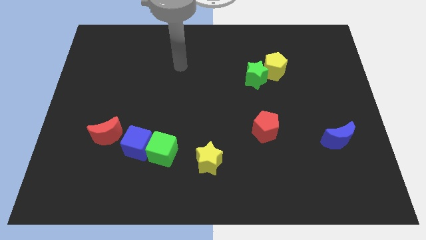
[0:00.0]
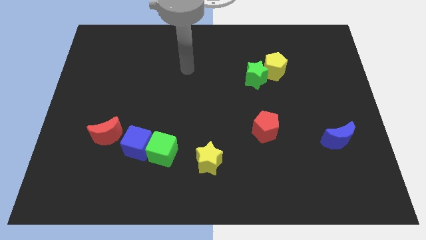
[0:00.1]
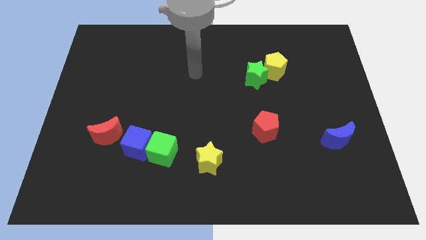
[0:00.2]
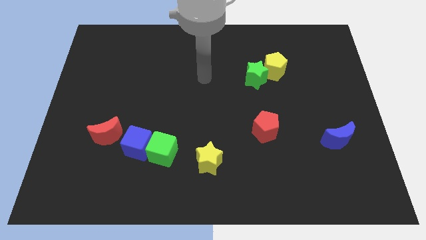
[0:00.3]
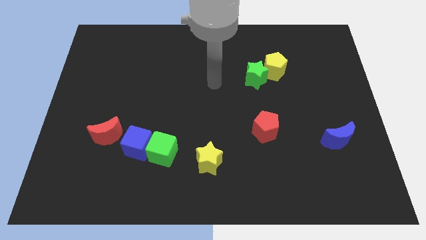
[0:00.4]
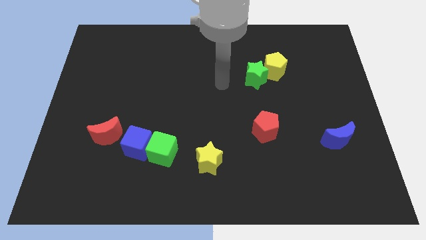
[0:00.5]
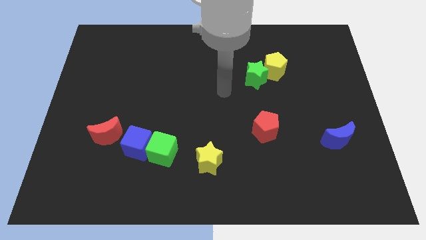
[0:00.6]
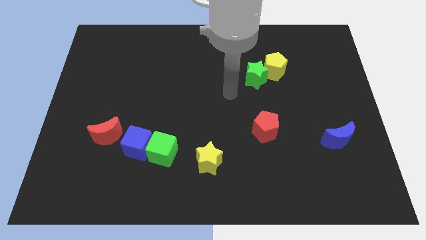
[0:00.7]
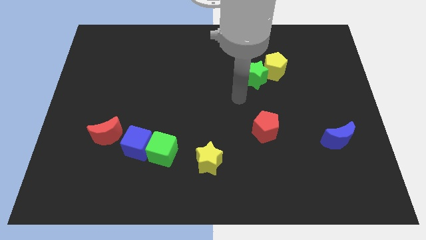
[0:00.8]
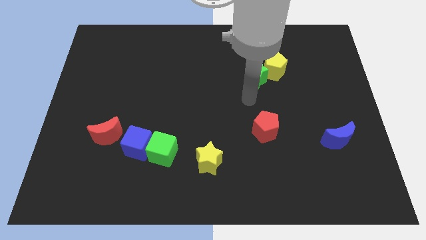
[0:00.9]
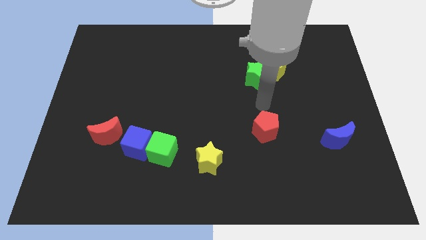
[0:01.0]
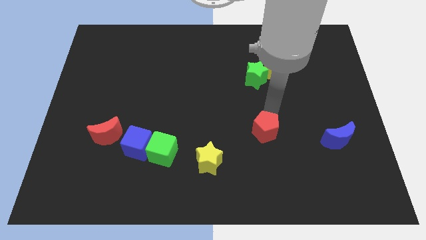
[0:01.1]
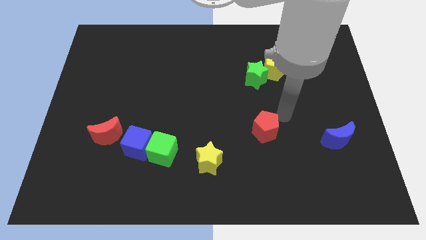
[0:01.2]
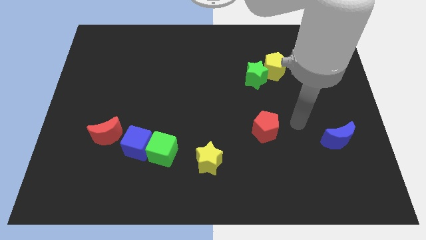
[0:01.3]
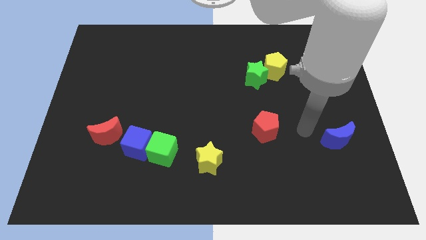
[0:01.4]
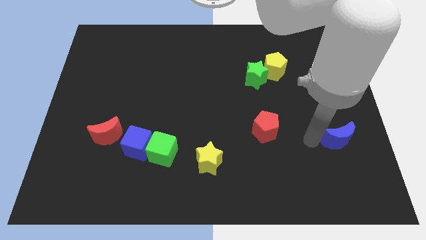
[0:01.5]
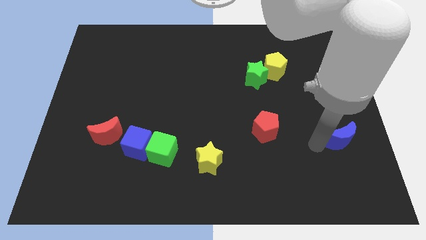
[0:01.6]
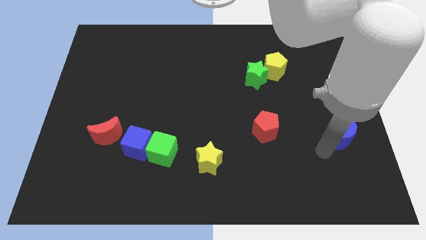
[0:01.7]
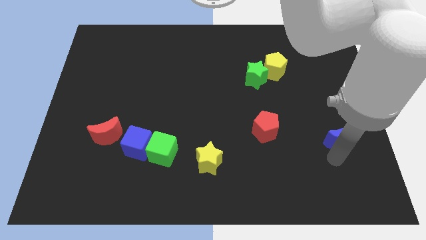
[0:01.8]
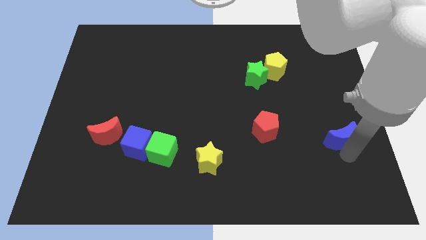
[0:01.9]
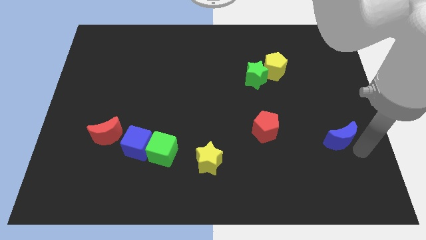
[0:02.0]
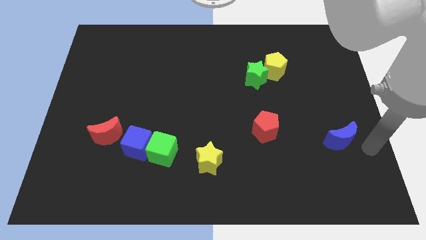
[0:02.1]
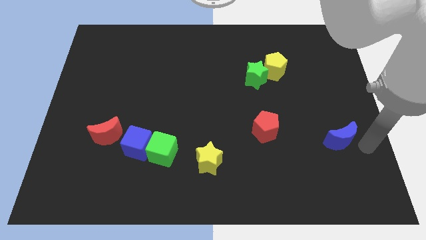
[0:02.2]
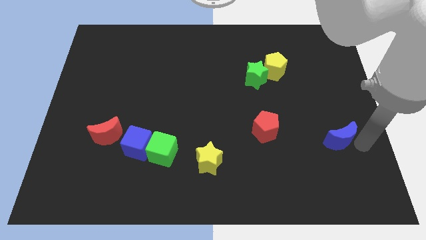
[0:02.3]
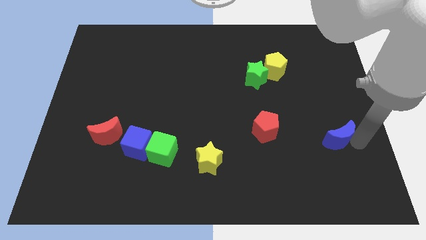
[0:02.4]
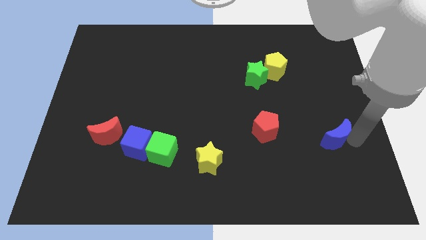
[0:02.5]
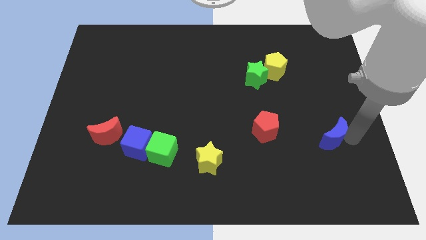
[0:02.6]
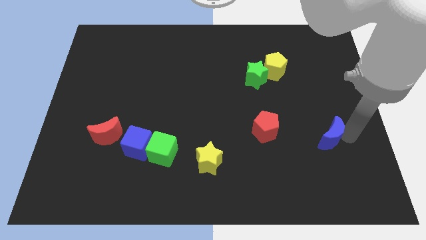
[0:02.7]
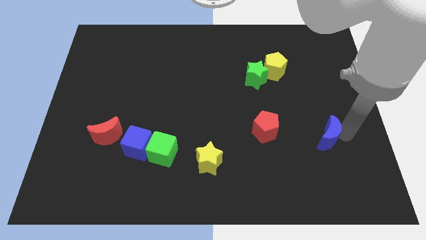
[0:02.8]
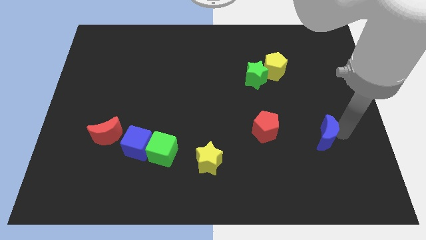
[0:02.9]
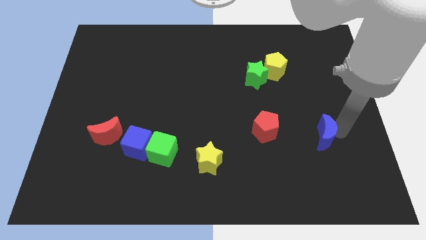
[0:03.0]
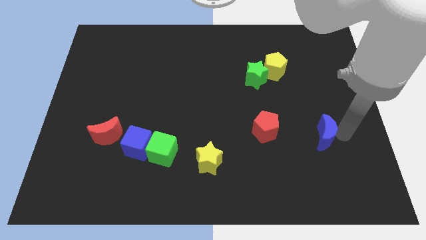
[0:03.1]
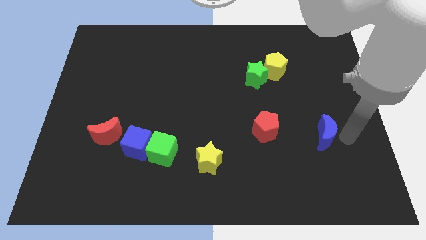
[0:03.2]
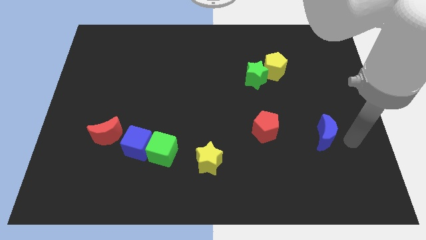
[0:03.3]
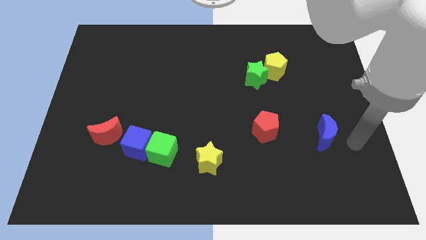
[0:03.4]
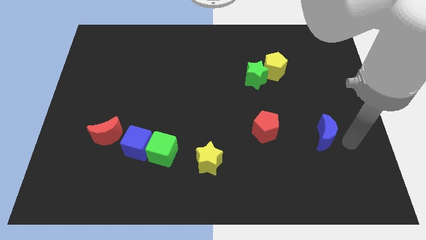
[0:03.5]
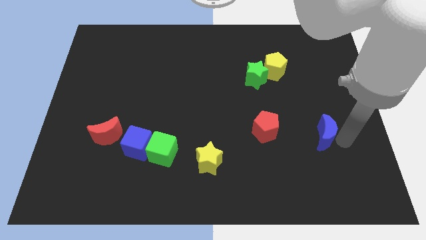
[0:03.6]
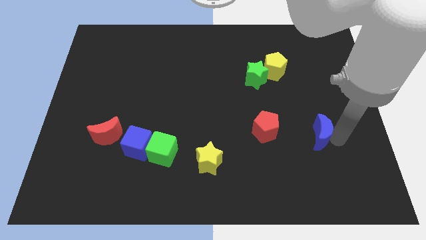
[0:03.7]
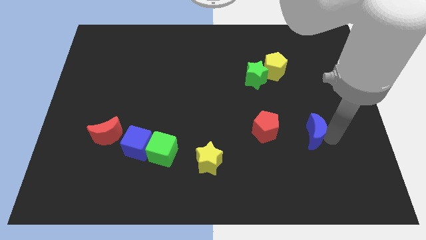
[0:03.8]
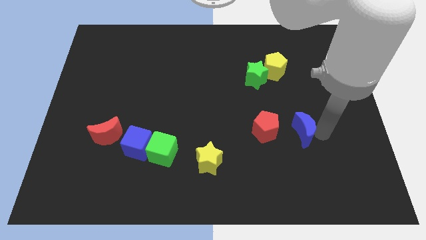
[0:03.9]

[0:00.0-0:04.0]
slide the blue moon left a bit

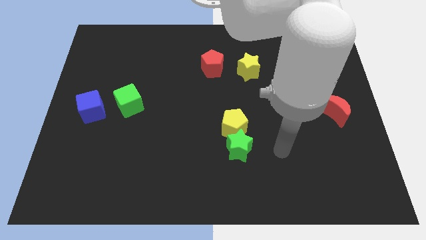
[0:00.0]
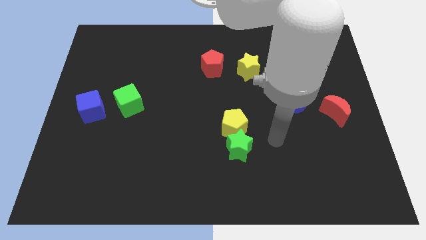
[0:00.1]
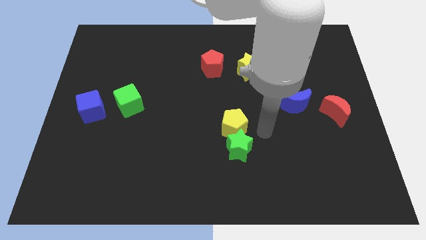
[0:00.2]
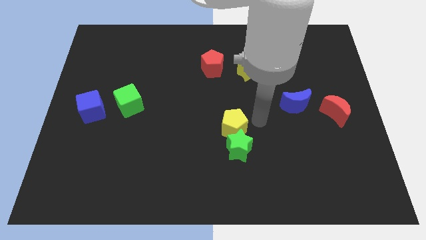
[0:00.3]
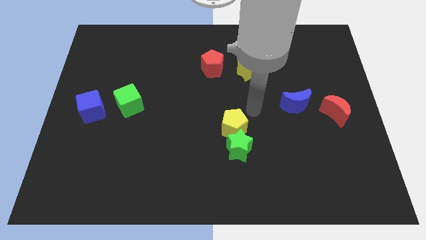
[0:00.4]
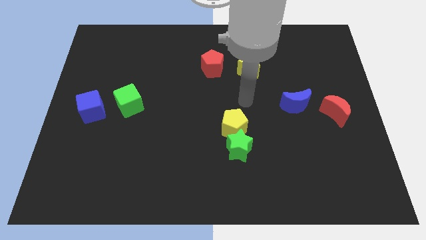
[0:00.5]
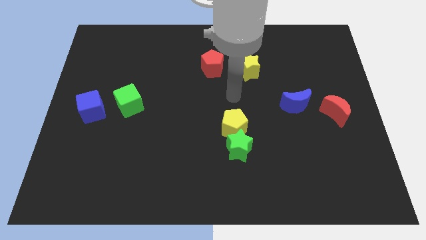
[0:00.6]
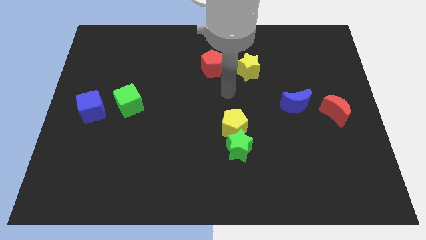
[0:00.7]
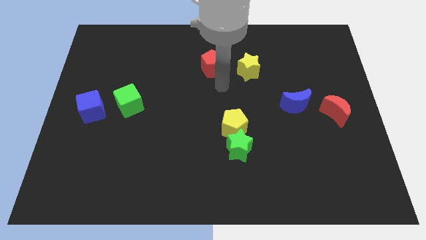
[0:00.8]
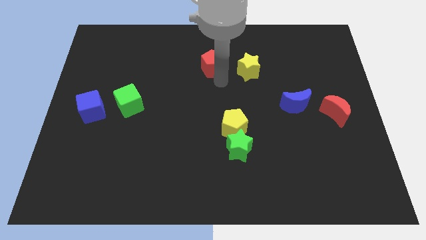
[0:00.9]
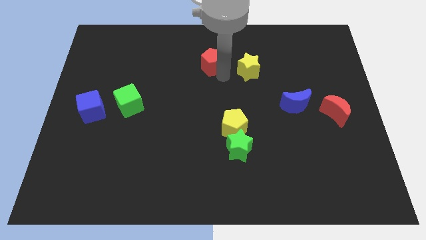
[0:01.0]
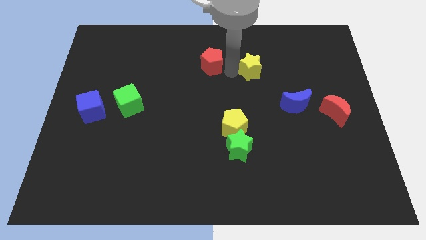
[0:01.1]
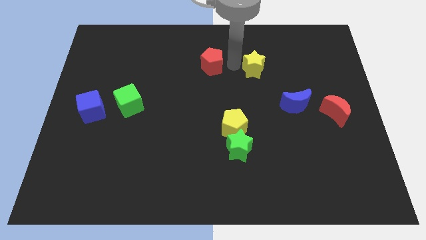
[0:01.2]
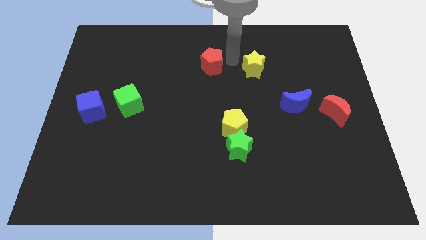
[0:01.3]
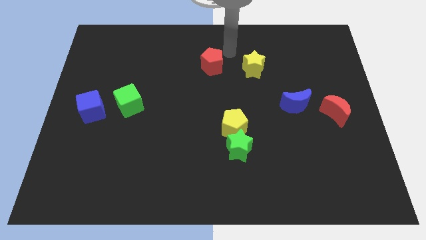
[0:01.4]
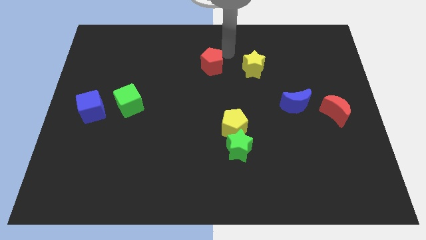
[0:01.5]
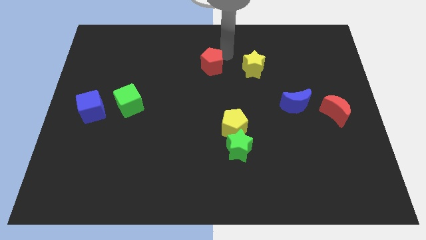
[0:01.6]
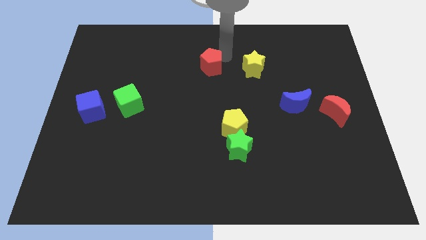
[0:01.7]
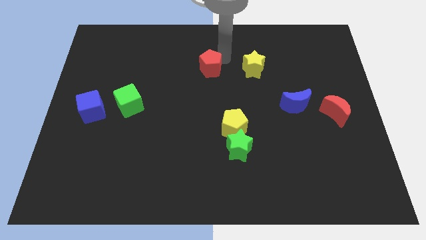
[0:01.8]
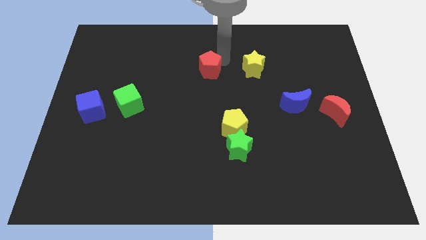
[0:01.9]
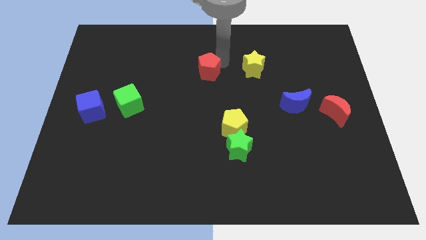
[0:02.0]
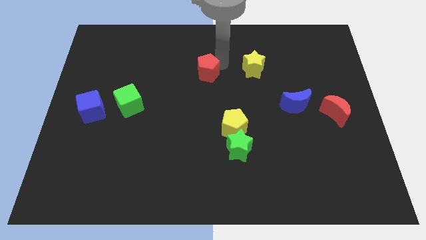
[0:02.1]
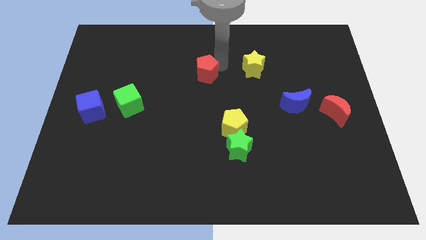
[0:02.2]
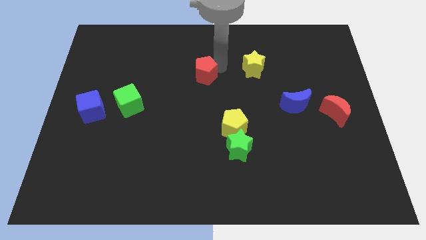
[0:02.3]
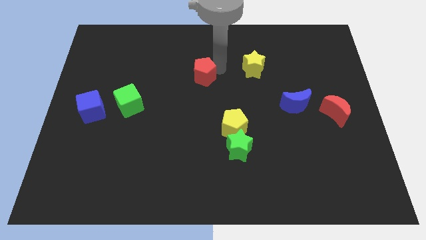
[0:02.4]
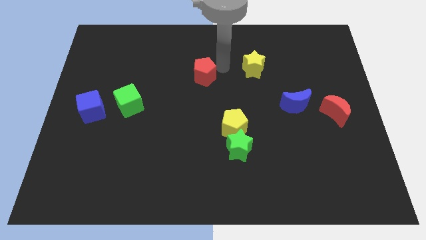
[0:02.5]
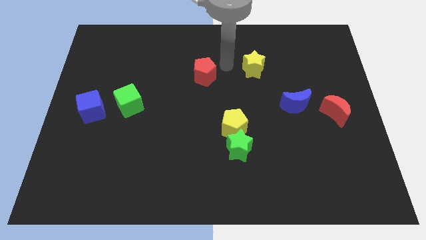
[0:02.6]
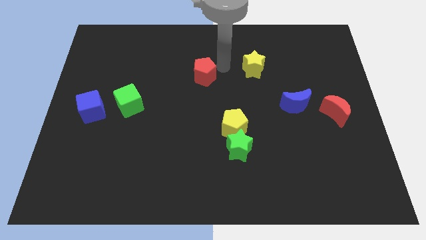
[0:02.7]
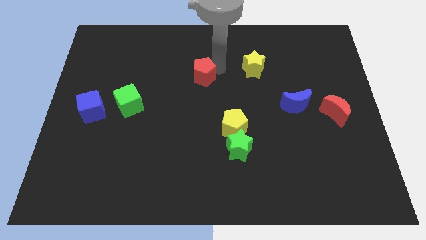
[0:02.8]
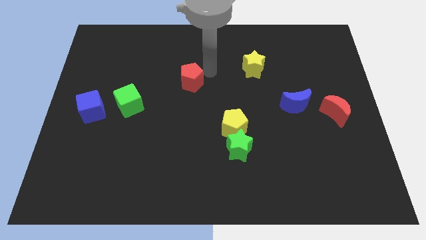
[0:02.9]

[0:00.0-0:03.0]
slightly slide the red pentagon down and to the left diagonally

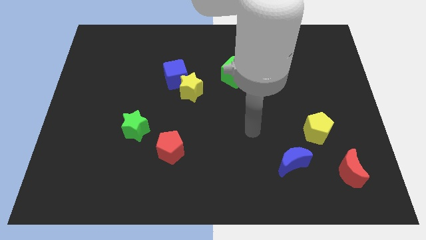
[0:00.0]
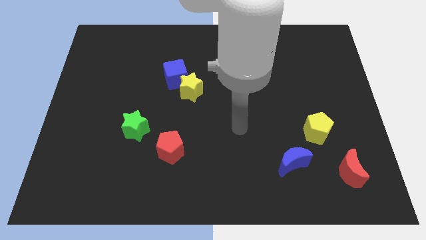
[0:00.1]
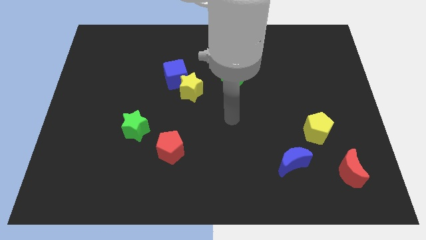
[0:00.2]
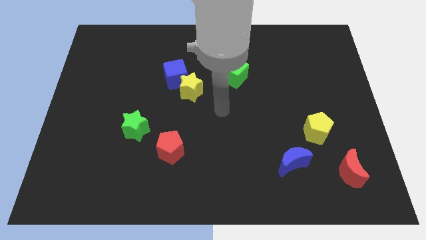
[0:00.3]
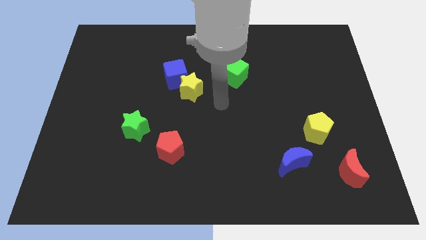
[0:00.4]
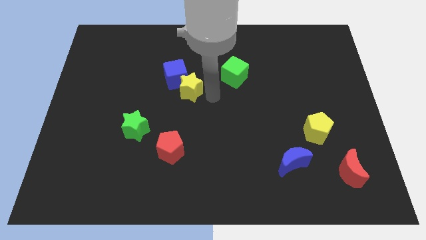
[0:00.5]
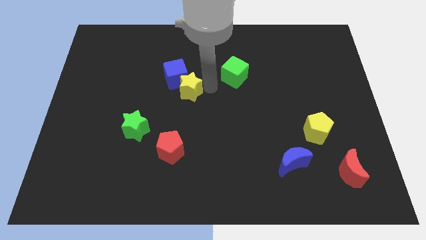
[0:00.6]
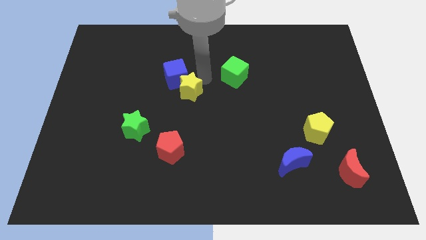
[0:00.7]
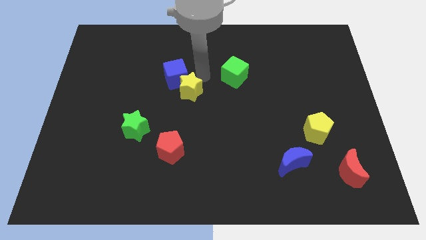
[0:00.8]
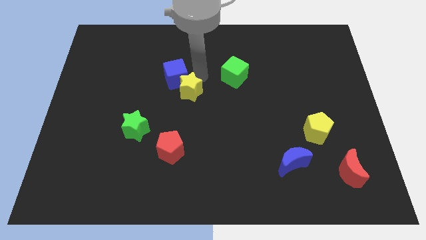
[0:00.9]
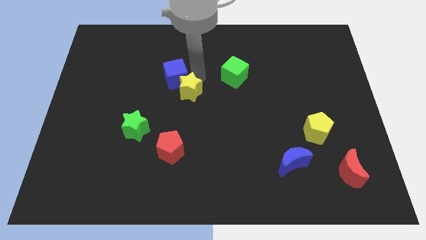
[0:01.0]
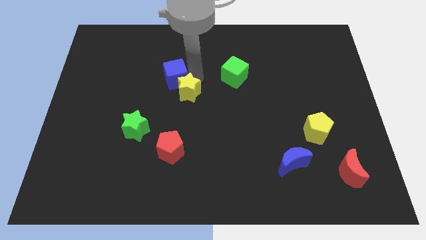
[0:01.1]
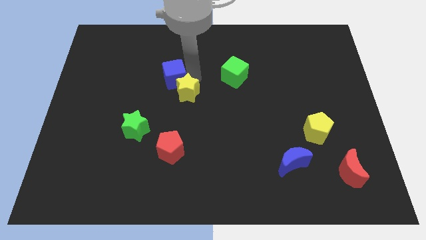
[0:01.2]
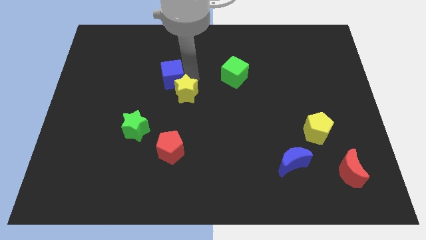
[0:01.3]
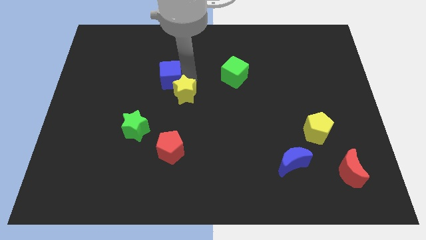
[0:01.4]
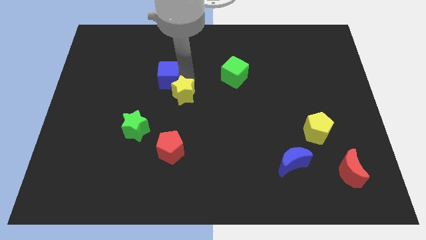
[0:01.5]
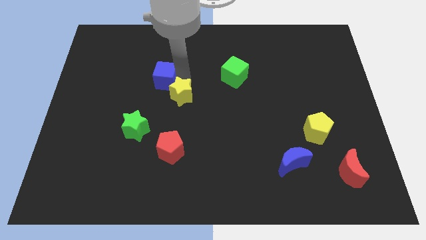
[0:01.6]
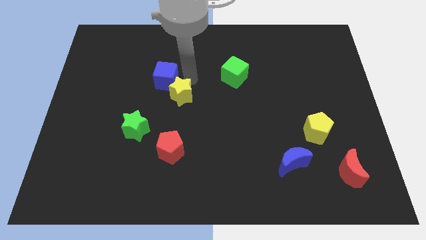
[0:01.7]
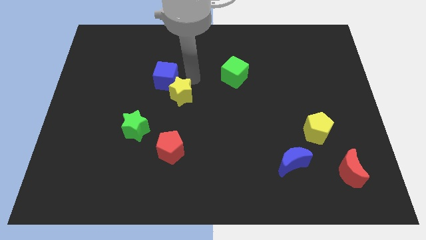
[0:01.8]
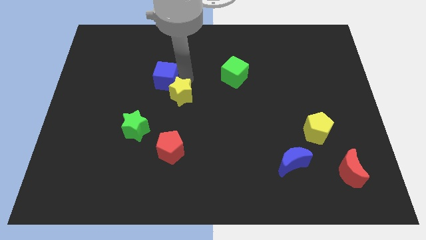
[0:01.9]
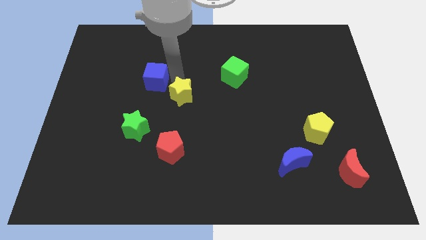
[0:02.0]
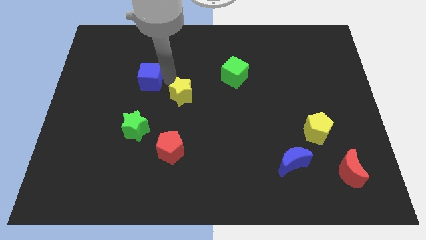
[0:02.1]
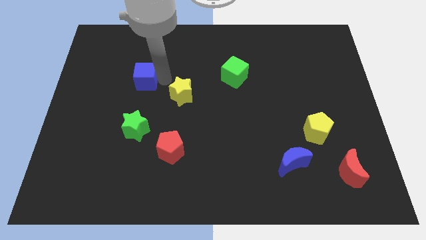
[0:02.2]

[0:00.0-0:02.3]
slightly move the blue cube to the left
